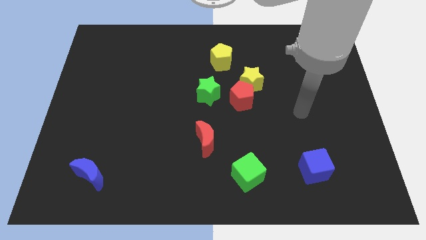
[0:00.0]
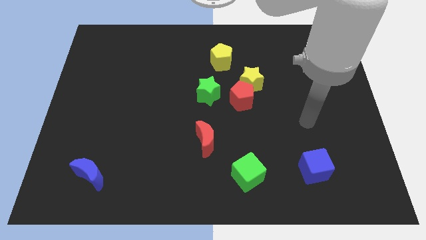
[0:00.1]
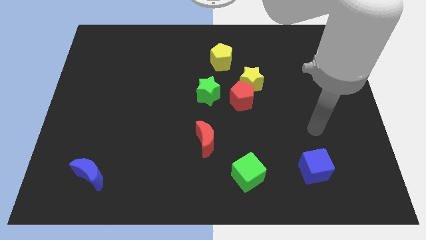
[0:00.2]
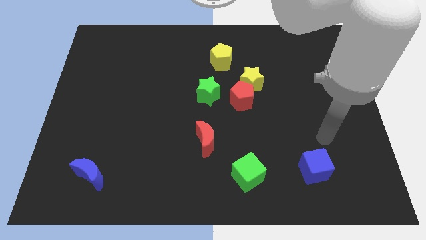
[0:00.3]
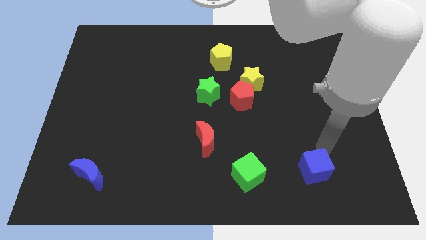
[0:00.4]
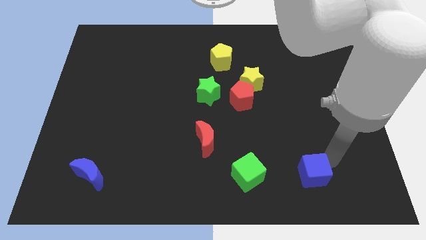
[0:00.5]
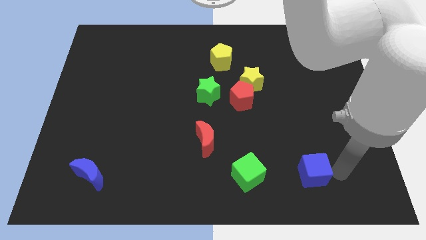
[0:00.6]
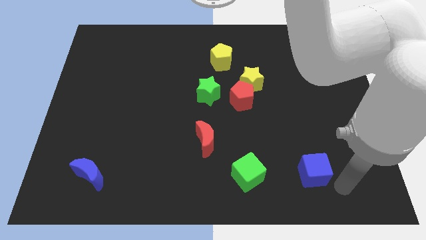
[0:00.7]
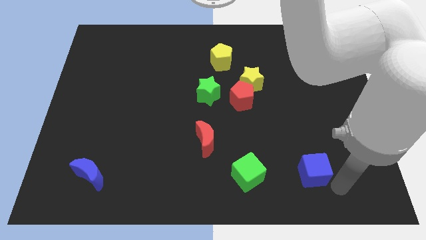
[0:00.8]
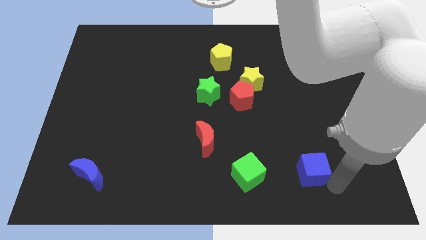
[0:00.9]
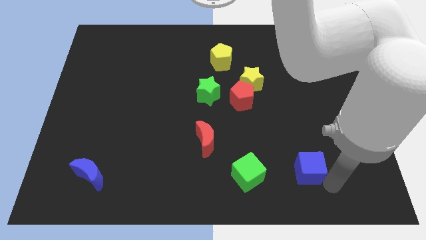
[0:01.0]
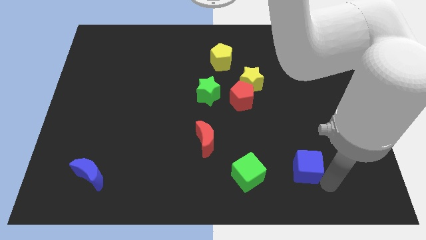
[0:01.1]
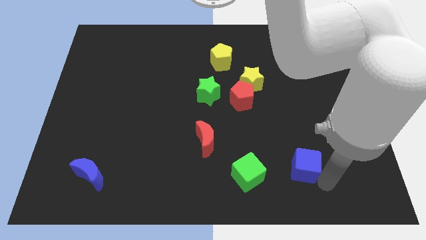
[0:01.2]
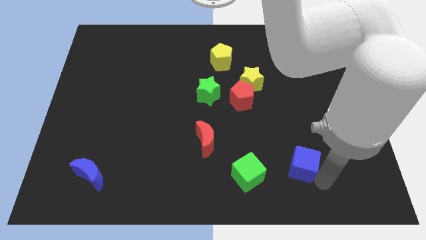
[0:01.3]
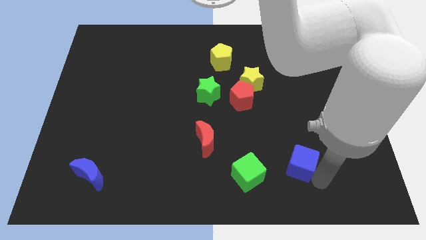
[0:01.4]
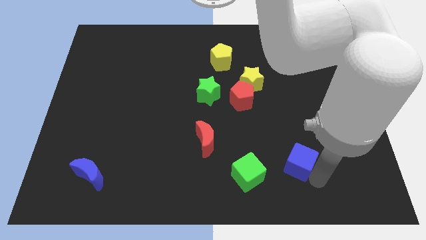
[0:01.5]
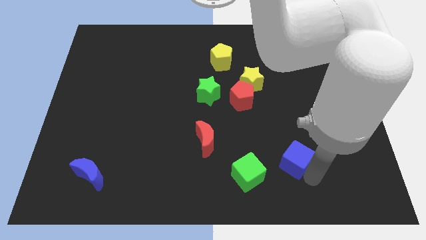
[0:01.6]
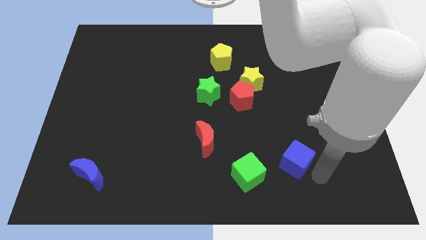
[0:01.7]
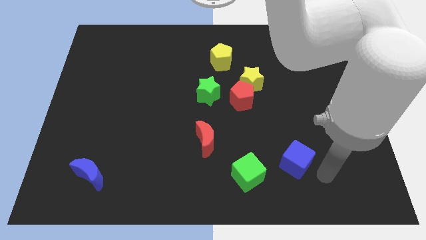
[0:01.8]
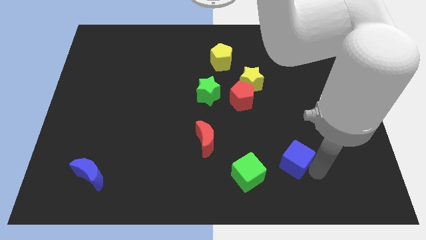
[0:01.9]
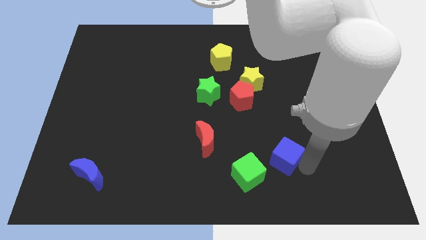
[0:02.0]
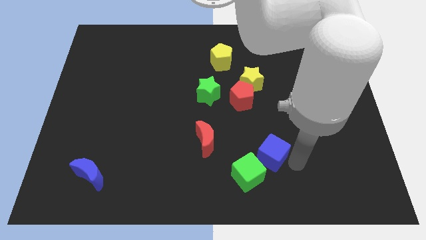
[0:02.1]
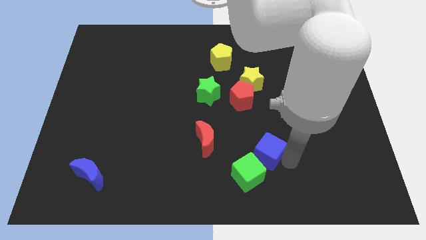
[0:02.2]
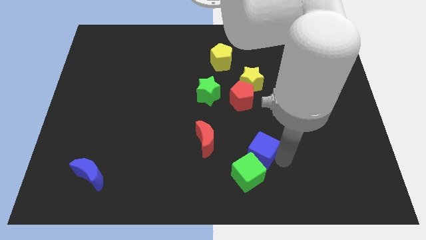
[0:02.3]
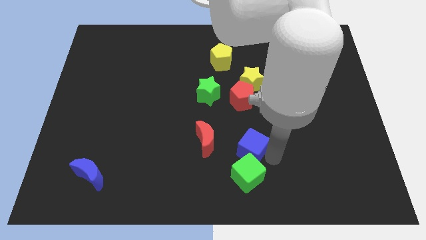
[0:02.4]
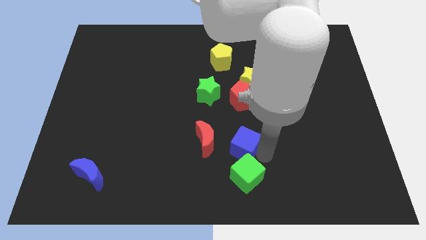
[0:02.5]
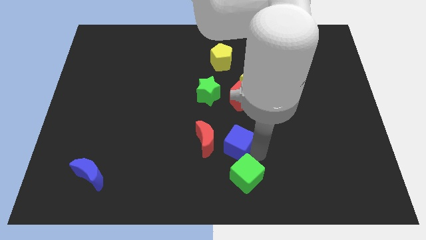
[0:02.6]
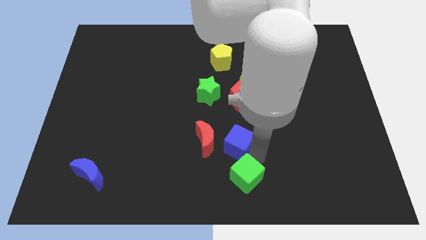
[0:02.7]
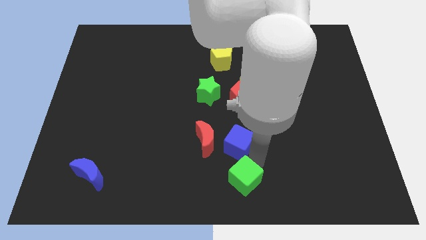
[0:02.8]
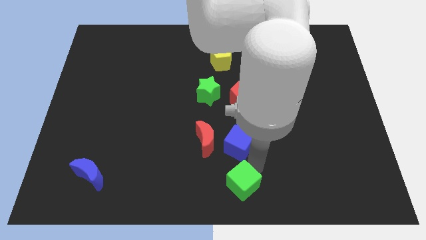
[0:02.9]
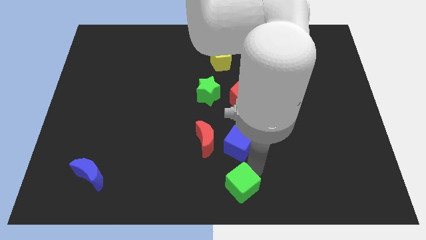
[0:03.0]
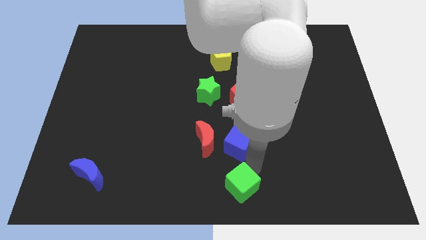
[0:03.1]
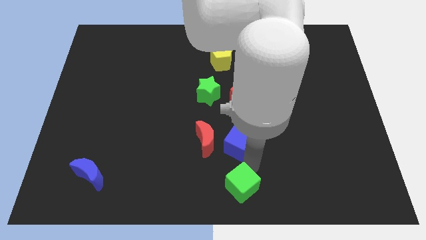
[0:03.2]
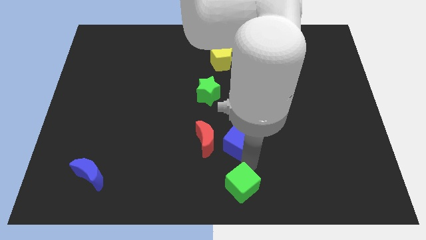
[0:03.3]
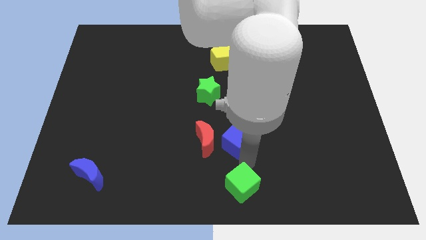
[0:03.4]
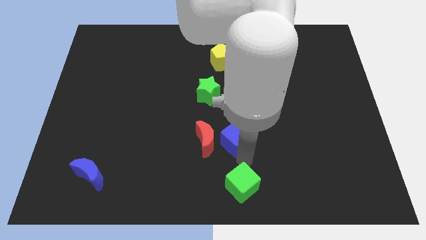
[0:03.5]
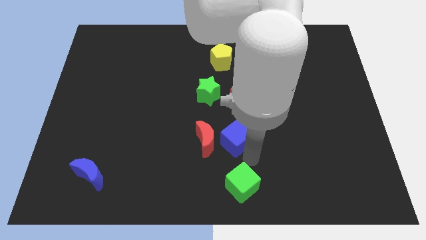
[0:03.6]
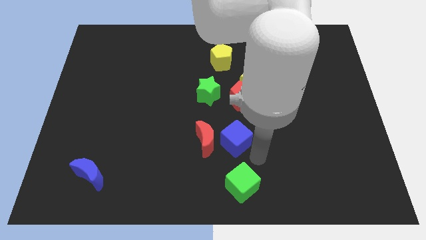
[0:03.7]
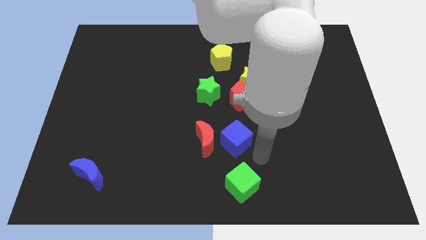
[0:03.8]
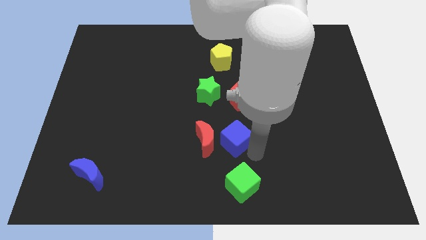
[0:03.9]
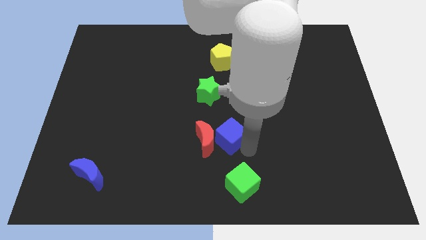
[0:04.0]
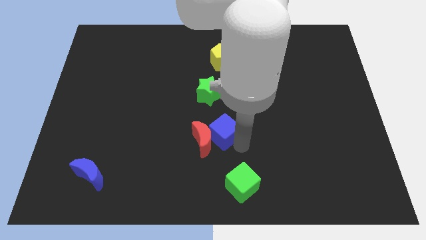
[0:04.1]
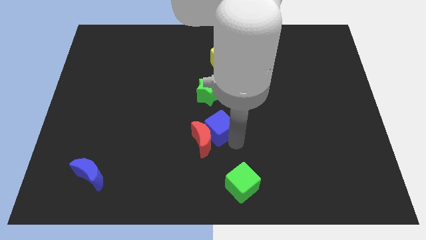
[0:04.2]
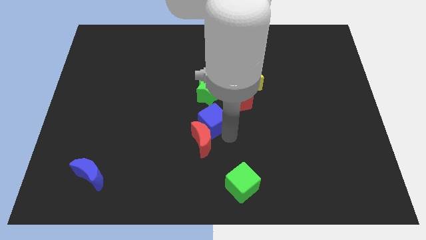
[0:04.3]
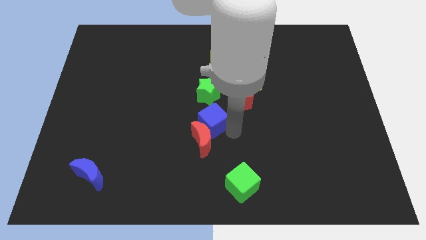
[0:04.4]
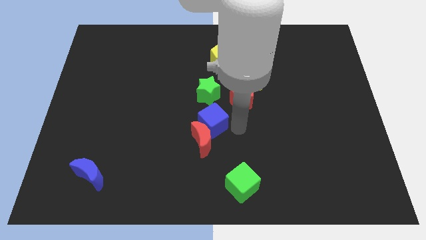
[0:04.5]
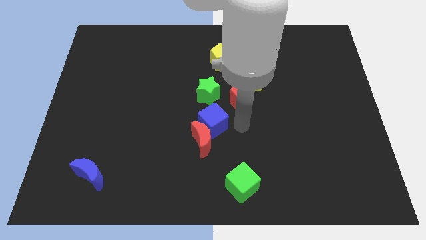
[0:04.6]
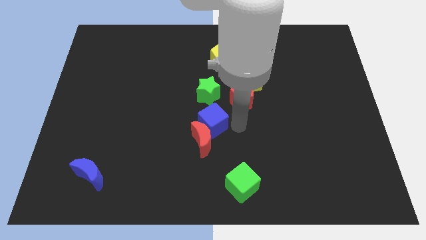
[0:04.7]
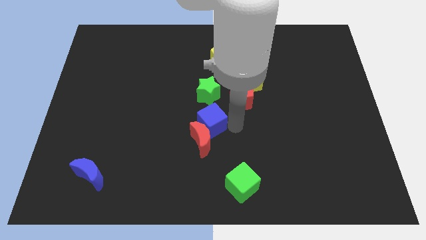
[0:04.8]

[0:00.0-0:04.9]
put the blue cube to the top left of the red moon

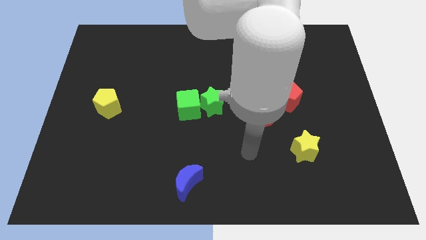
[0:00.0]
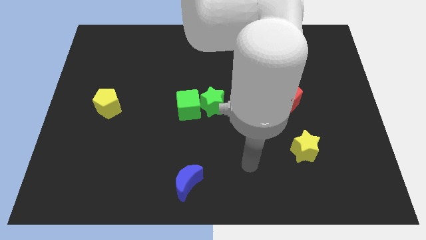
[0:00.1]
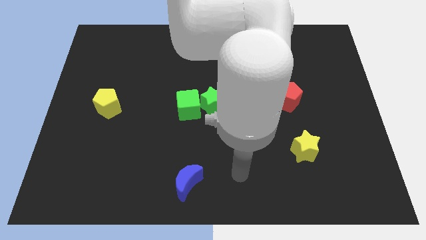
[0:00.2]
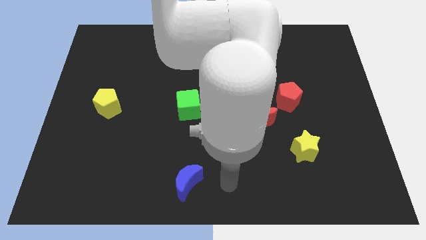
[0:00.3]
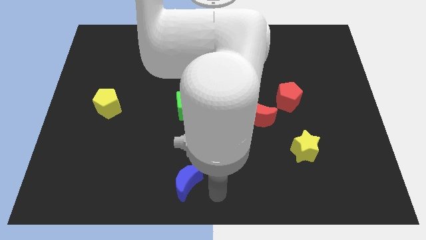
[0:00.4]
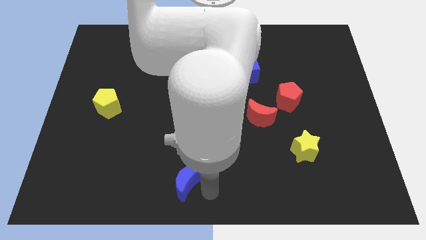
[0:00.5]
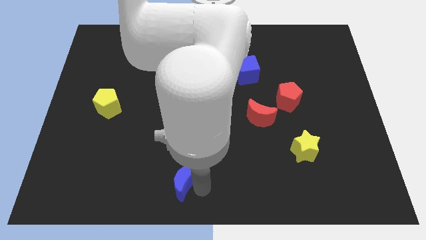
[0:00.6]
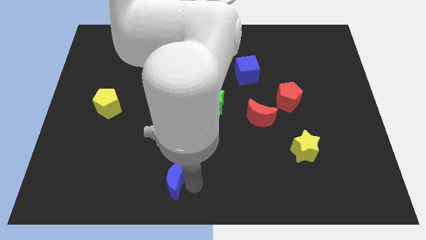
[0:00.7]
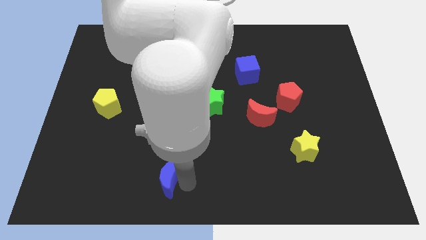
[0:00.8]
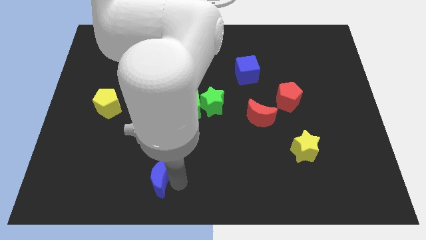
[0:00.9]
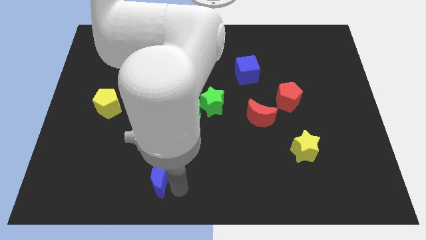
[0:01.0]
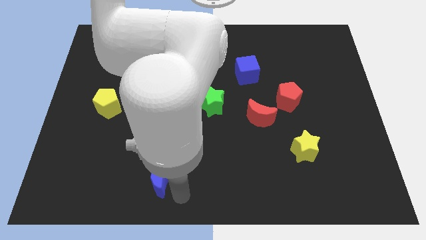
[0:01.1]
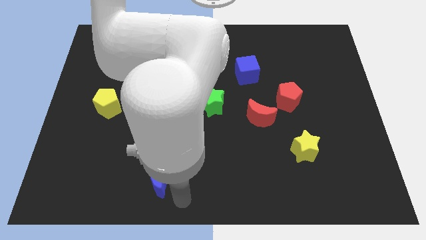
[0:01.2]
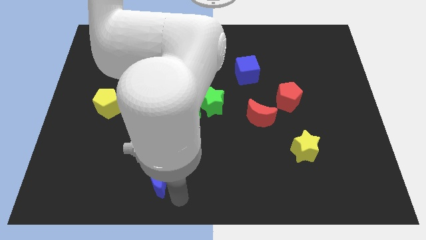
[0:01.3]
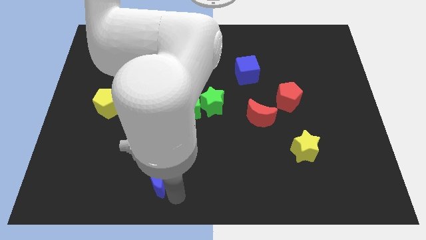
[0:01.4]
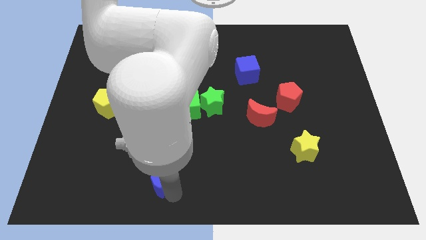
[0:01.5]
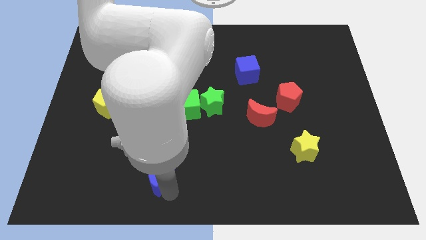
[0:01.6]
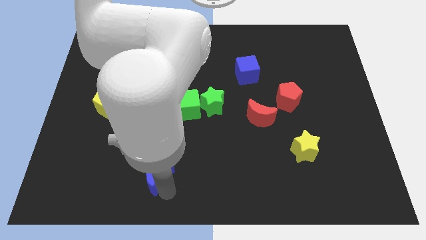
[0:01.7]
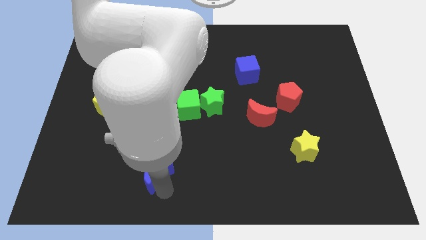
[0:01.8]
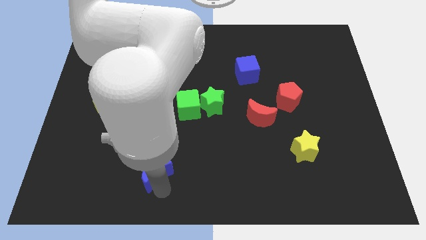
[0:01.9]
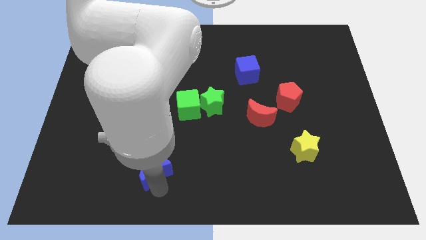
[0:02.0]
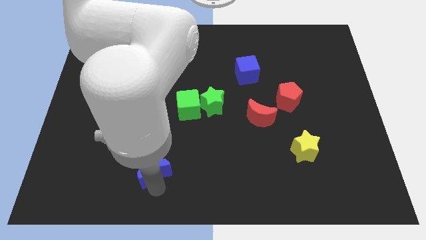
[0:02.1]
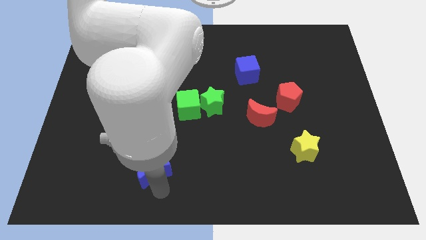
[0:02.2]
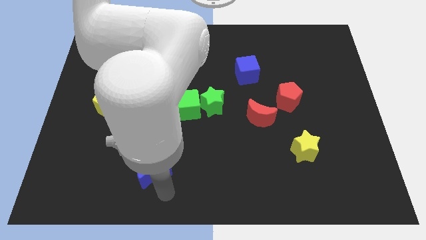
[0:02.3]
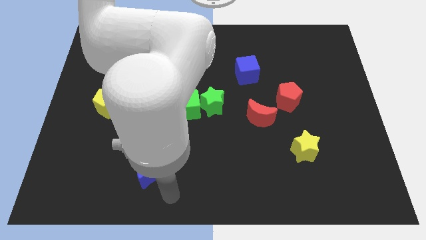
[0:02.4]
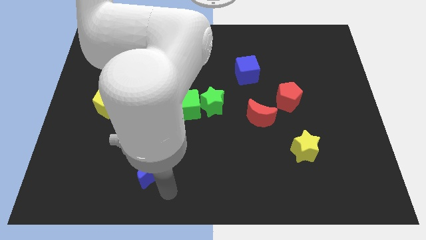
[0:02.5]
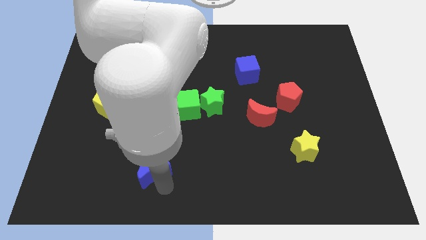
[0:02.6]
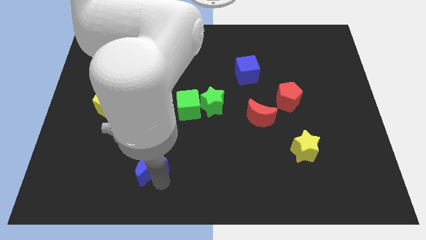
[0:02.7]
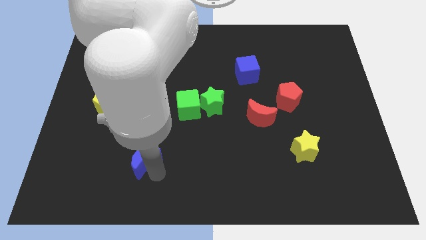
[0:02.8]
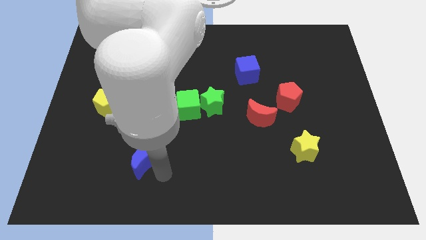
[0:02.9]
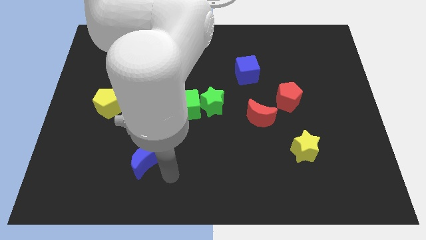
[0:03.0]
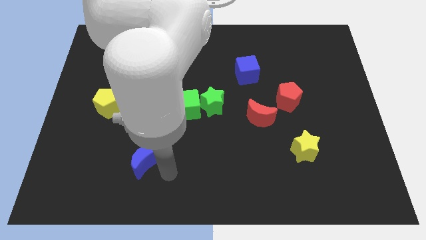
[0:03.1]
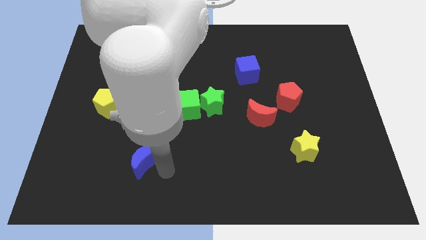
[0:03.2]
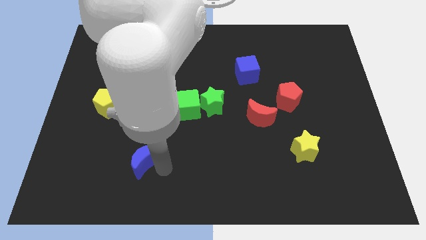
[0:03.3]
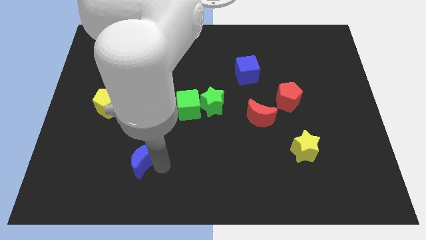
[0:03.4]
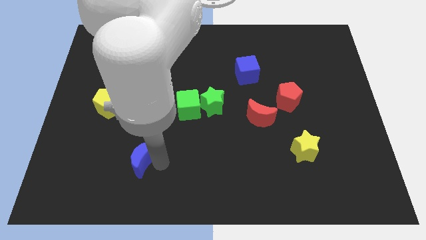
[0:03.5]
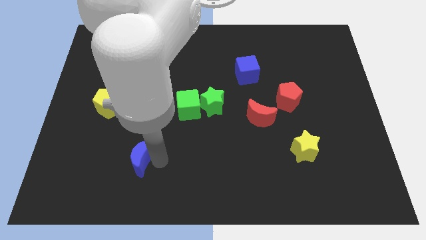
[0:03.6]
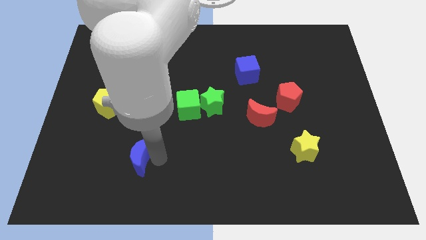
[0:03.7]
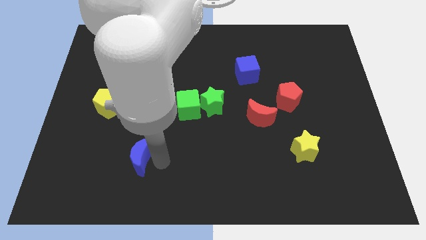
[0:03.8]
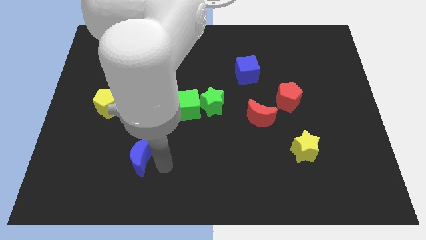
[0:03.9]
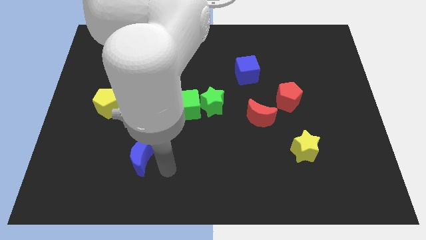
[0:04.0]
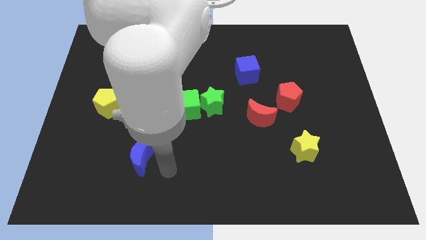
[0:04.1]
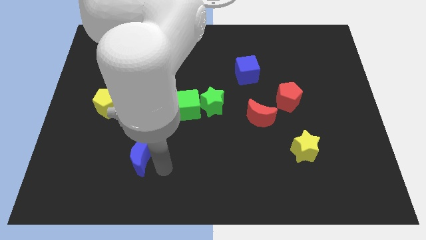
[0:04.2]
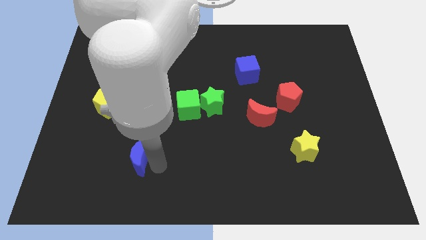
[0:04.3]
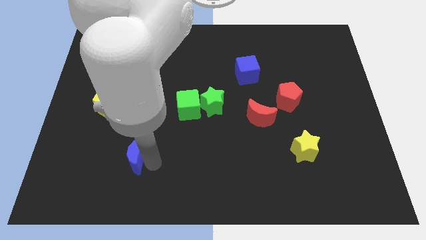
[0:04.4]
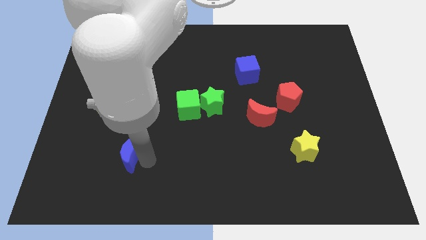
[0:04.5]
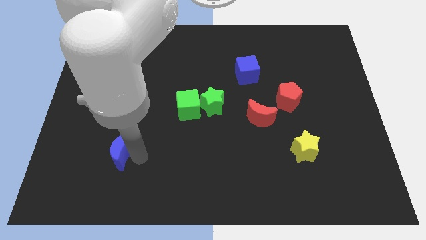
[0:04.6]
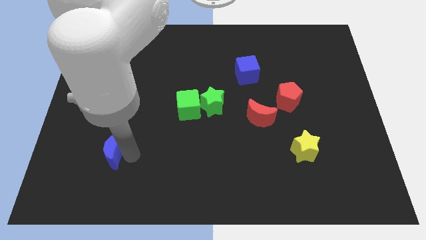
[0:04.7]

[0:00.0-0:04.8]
put the blue moon to the bottom of the yellow pentagon
